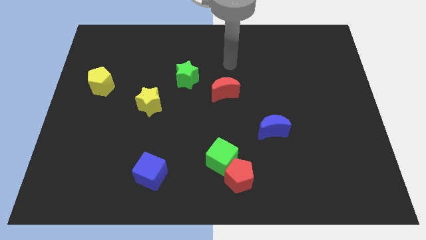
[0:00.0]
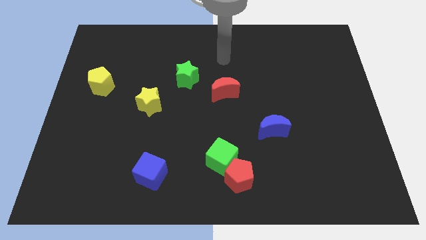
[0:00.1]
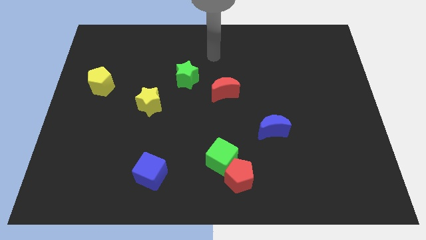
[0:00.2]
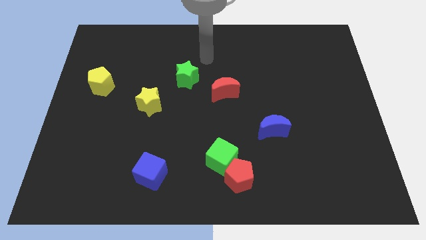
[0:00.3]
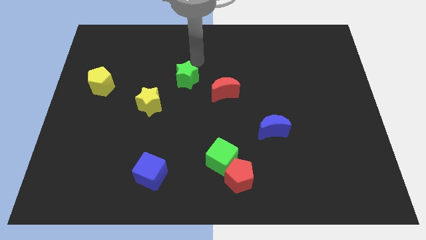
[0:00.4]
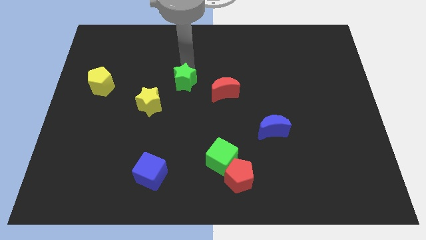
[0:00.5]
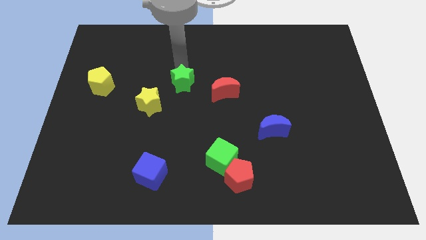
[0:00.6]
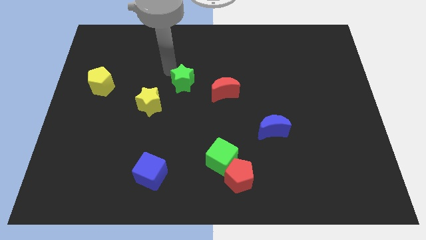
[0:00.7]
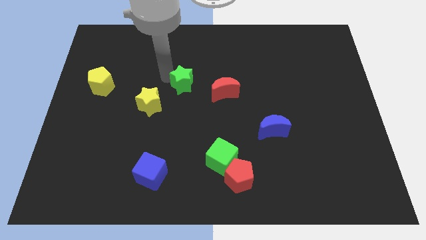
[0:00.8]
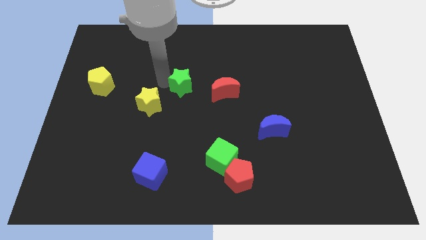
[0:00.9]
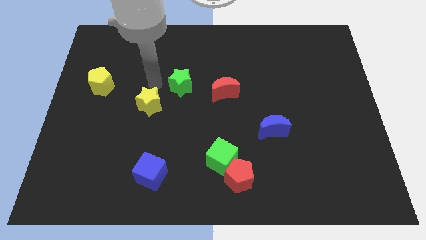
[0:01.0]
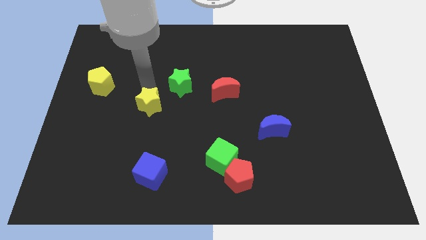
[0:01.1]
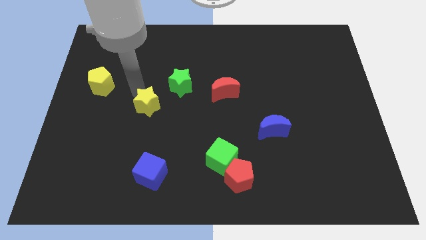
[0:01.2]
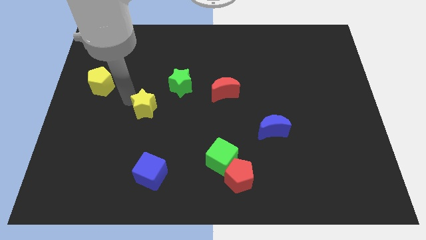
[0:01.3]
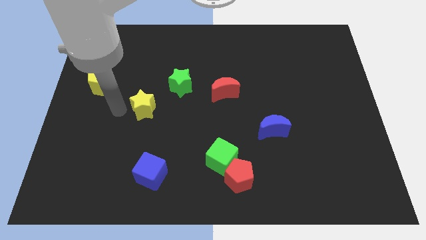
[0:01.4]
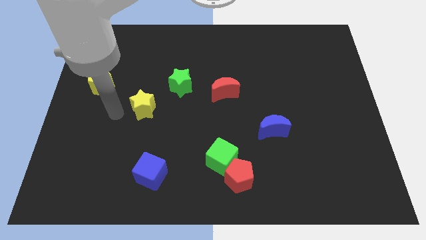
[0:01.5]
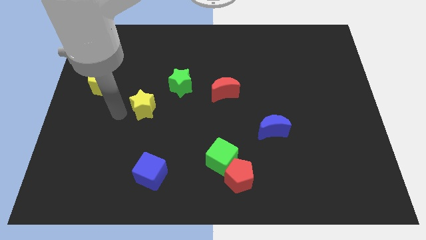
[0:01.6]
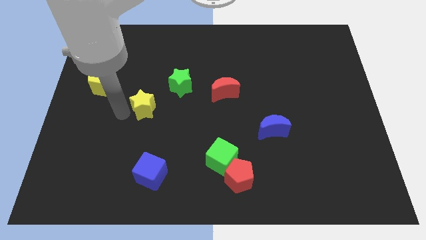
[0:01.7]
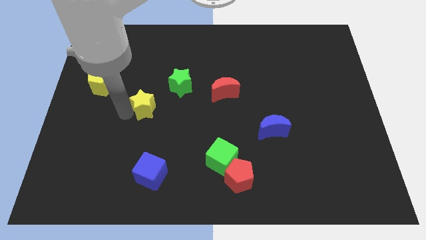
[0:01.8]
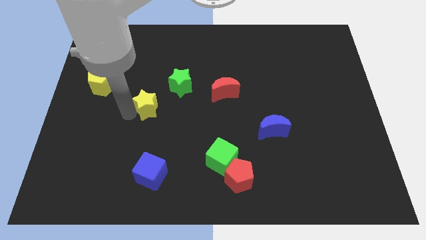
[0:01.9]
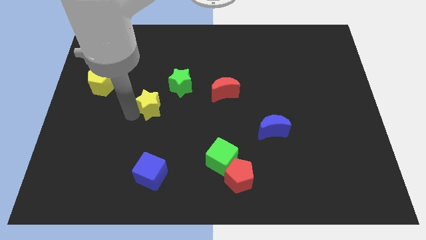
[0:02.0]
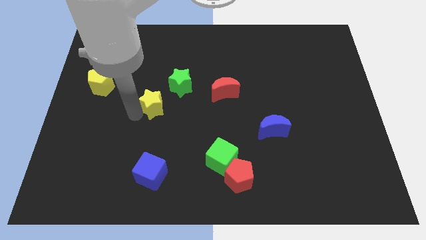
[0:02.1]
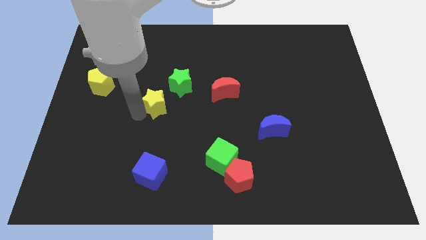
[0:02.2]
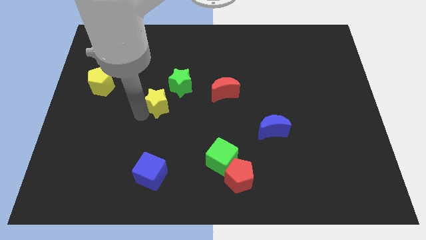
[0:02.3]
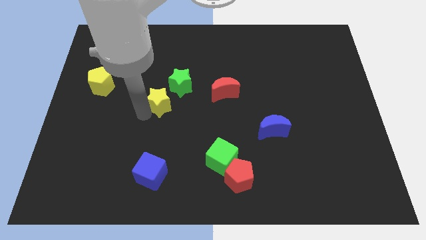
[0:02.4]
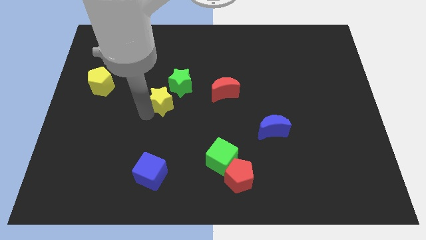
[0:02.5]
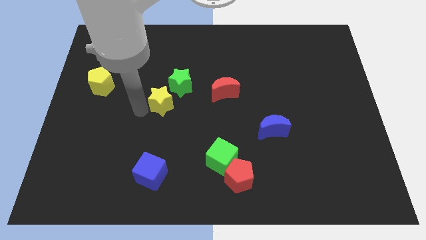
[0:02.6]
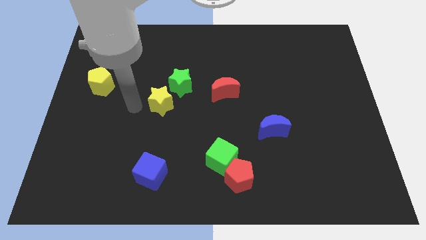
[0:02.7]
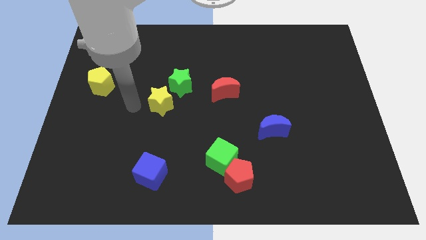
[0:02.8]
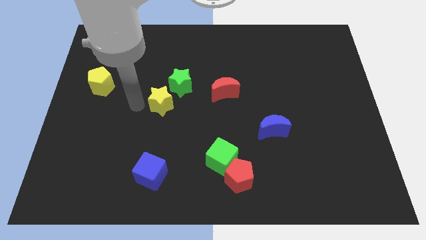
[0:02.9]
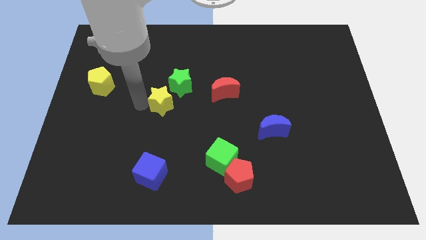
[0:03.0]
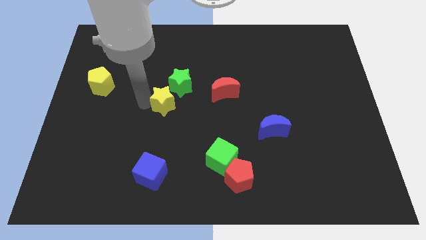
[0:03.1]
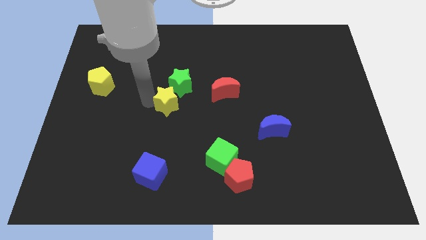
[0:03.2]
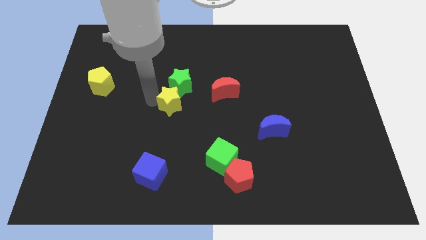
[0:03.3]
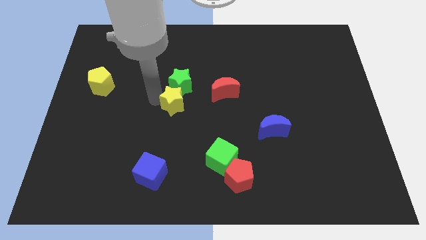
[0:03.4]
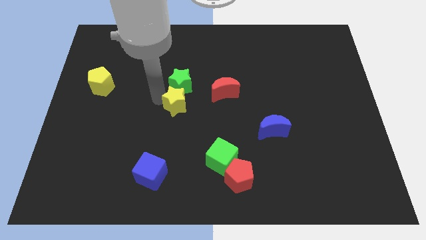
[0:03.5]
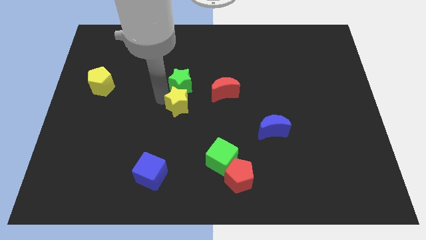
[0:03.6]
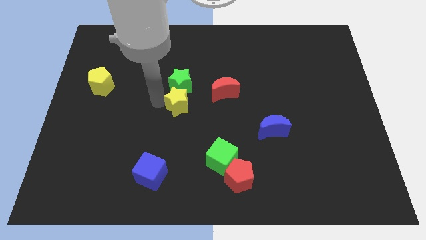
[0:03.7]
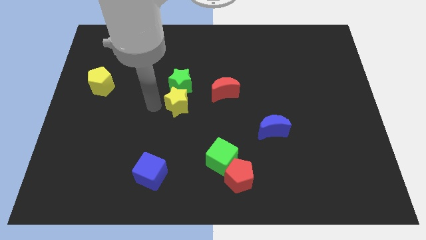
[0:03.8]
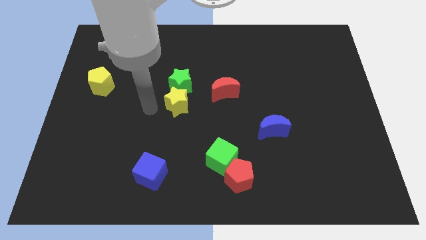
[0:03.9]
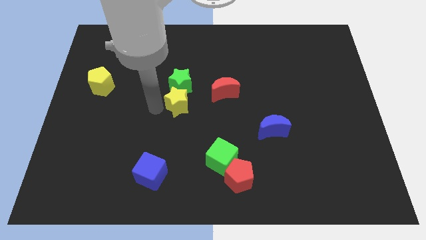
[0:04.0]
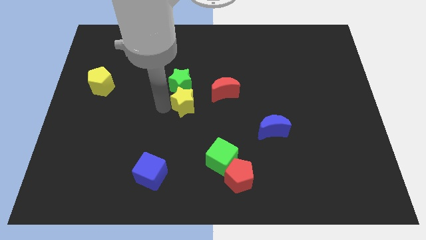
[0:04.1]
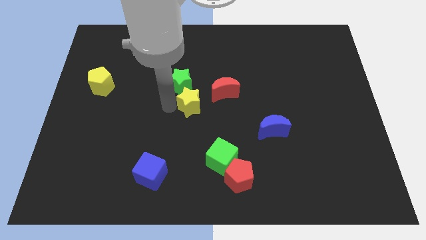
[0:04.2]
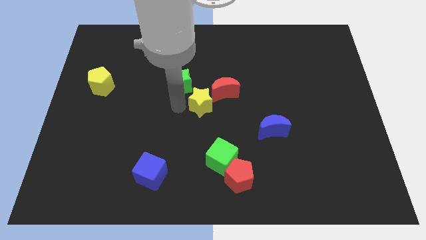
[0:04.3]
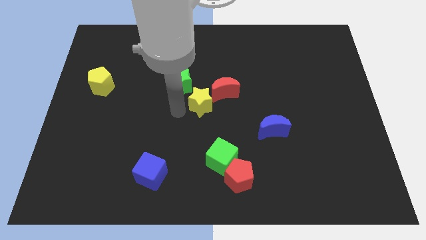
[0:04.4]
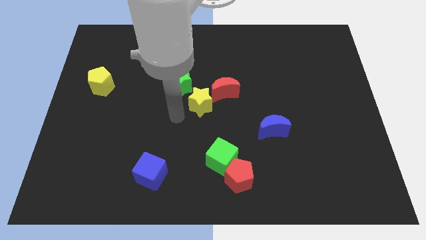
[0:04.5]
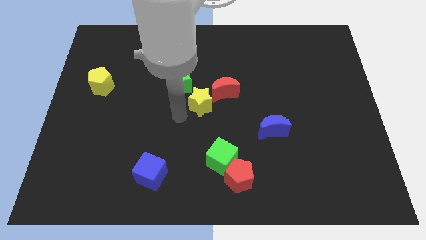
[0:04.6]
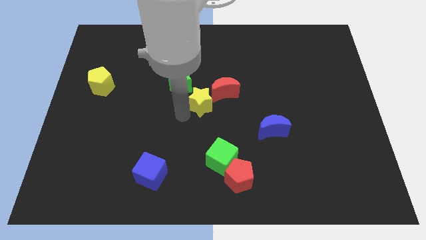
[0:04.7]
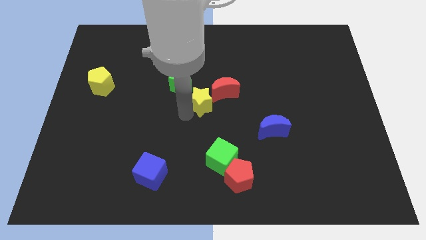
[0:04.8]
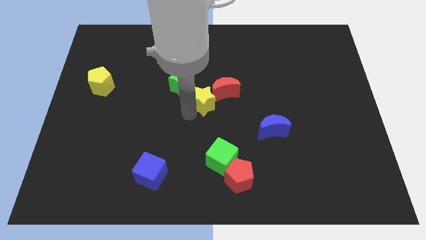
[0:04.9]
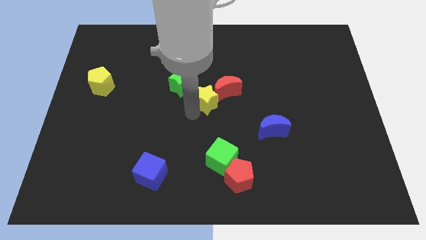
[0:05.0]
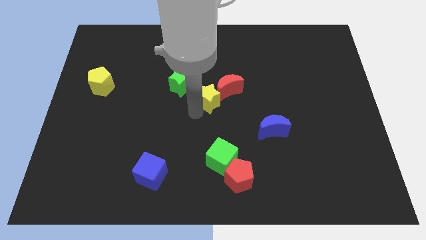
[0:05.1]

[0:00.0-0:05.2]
push the yellow star close to the red moon

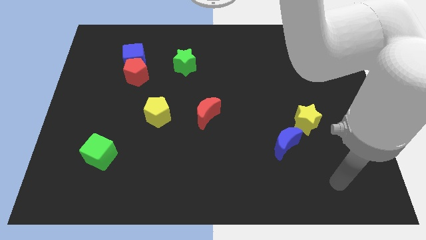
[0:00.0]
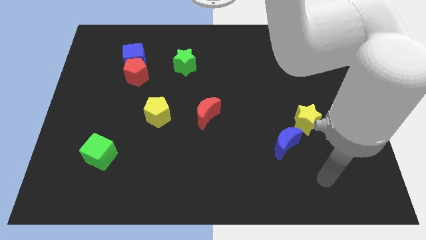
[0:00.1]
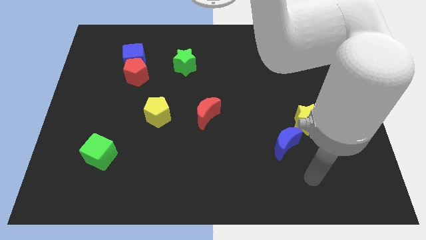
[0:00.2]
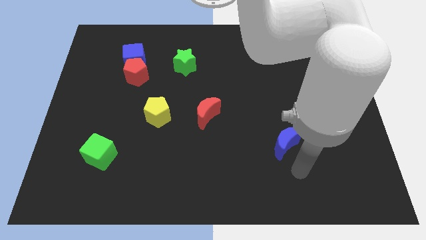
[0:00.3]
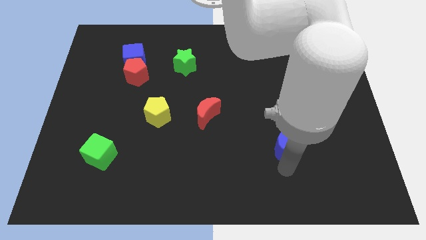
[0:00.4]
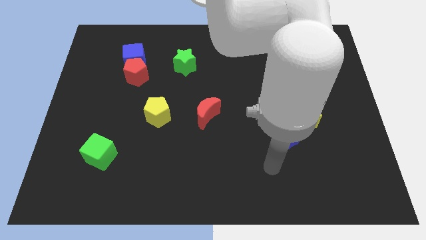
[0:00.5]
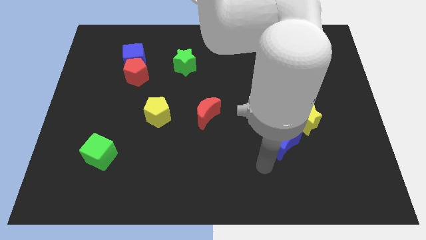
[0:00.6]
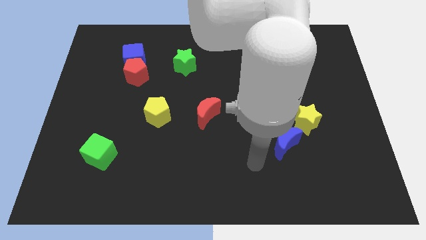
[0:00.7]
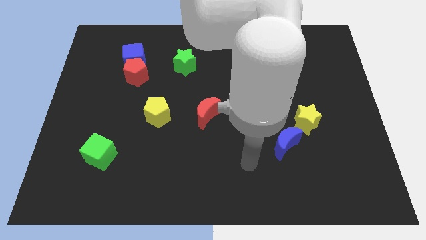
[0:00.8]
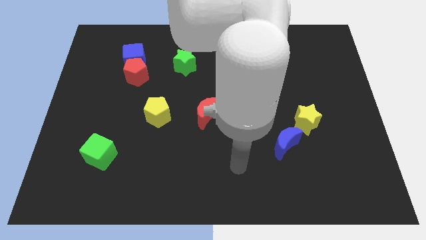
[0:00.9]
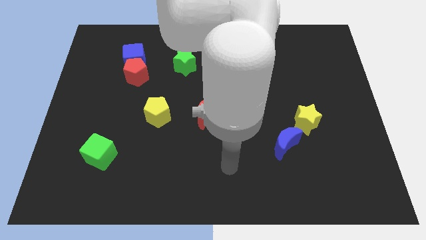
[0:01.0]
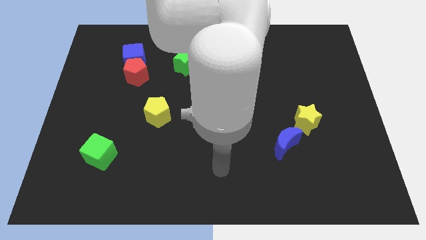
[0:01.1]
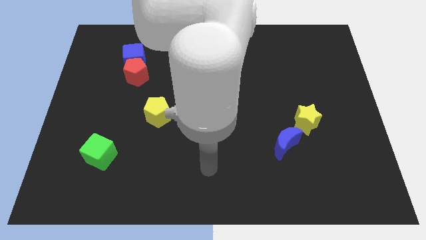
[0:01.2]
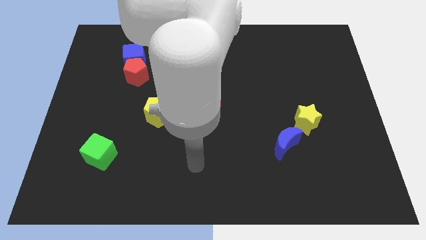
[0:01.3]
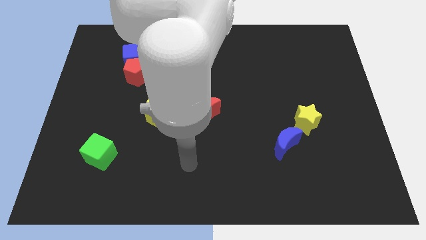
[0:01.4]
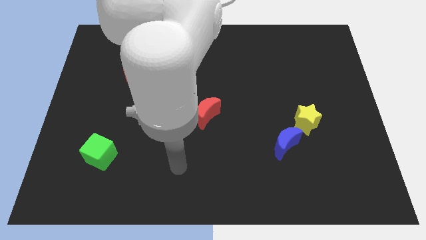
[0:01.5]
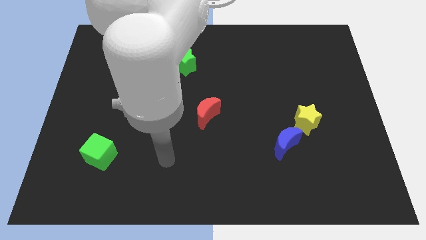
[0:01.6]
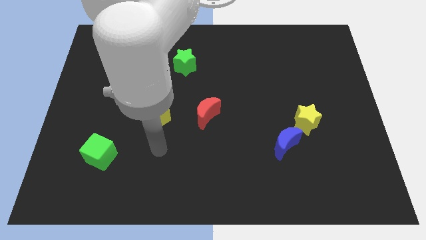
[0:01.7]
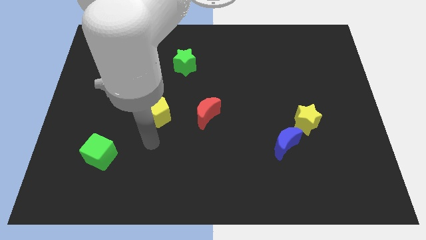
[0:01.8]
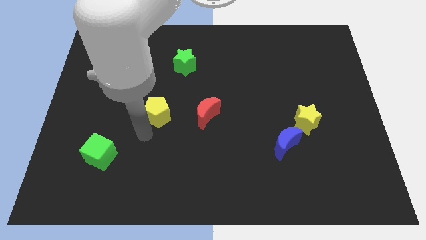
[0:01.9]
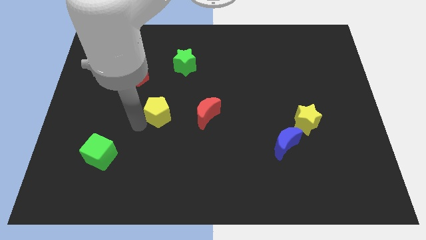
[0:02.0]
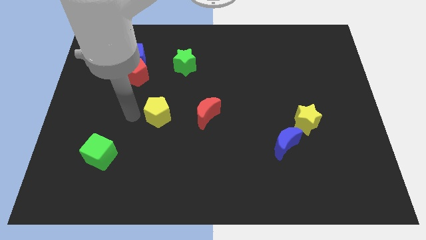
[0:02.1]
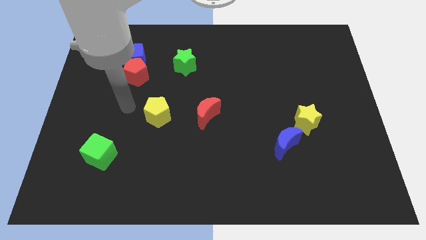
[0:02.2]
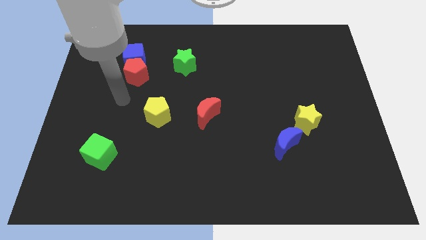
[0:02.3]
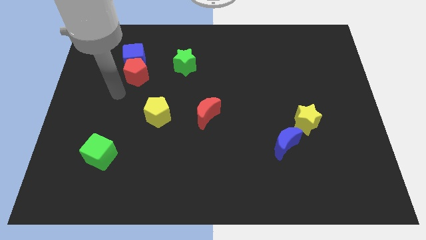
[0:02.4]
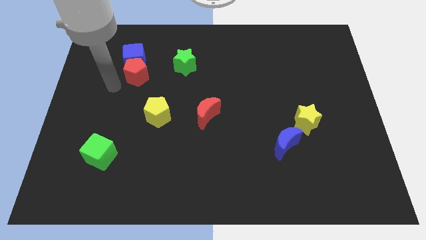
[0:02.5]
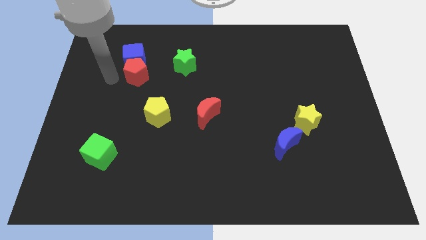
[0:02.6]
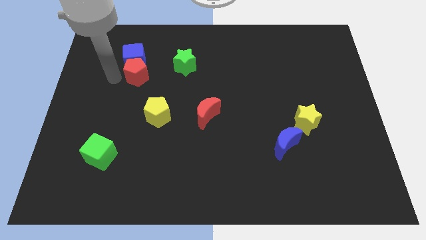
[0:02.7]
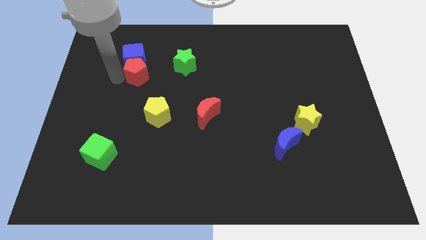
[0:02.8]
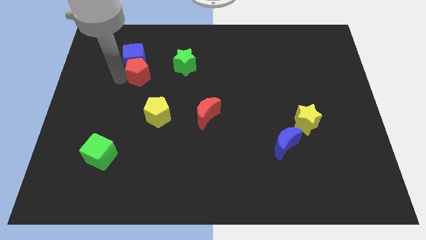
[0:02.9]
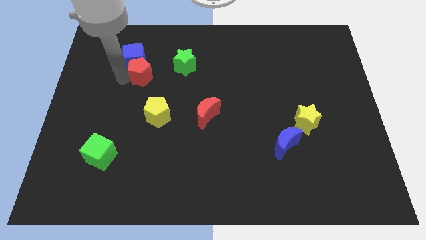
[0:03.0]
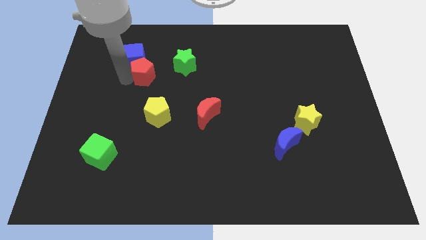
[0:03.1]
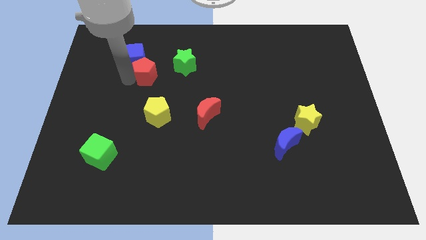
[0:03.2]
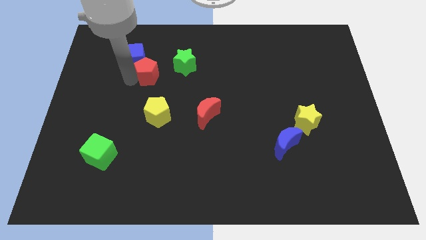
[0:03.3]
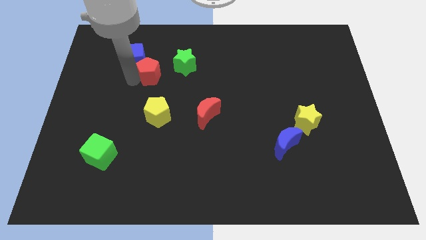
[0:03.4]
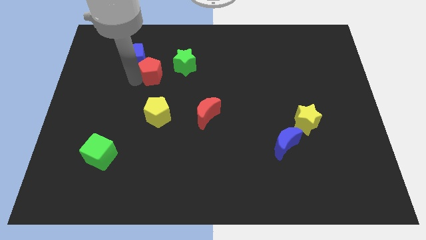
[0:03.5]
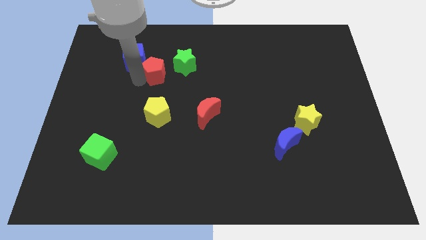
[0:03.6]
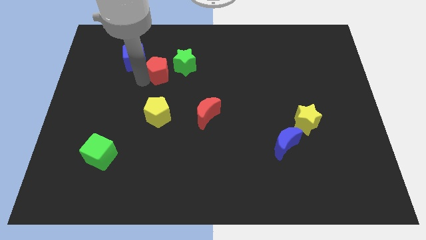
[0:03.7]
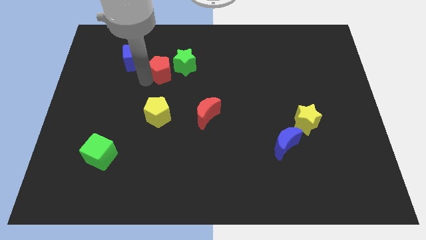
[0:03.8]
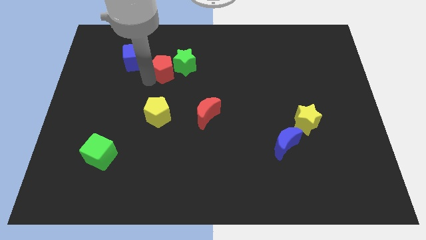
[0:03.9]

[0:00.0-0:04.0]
put the red pentagon to the green star
